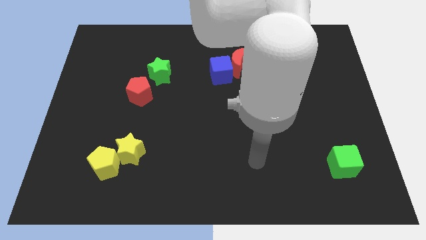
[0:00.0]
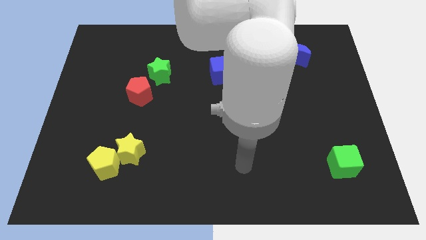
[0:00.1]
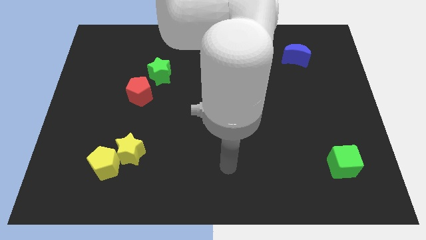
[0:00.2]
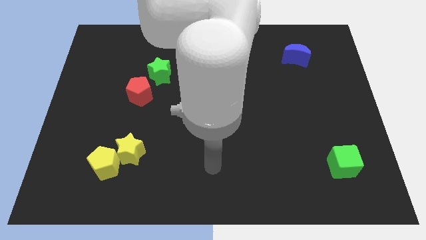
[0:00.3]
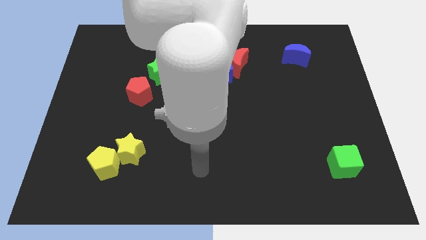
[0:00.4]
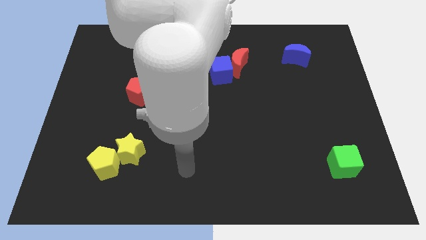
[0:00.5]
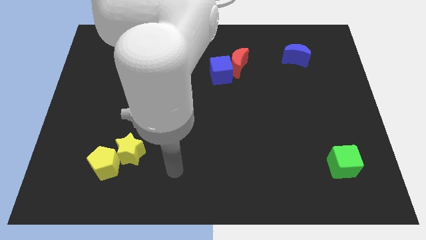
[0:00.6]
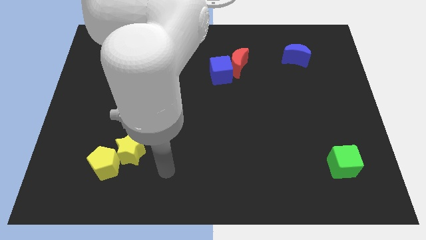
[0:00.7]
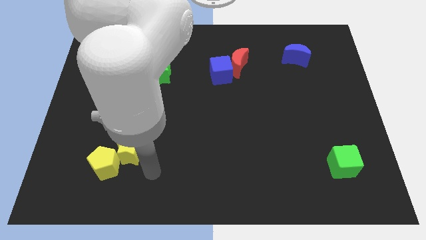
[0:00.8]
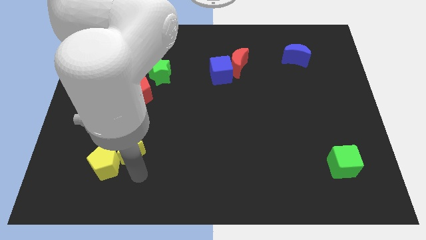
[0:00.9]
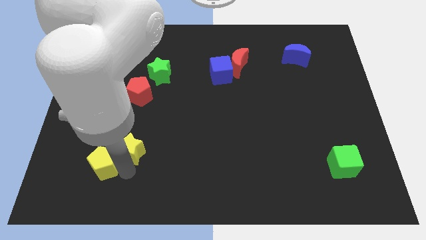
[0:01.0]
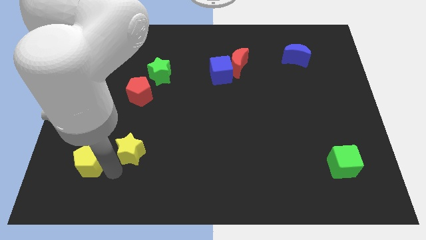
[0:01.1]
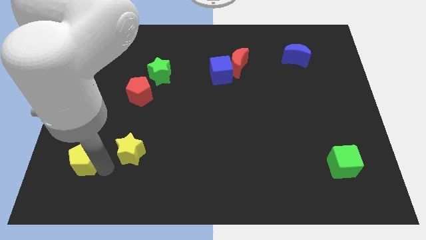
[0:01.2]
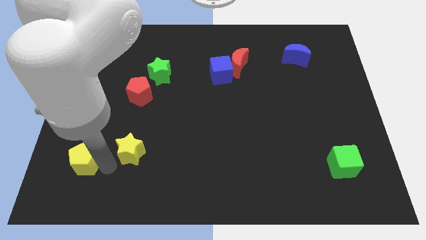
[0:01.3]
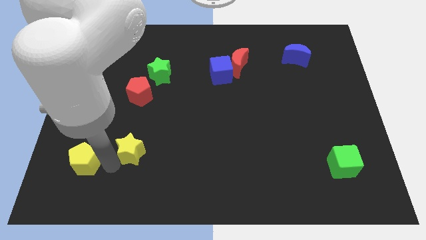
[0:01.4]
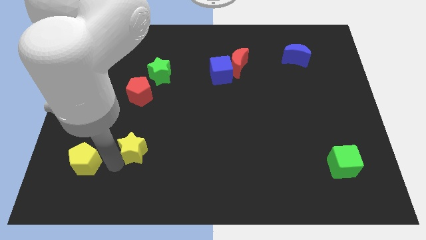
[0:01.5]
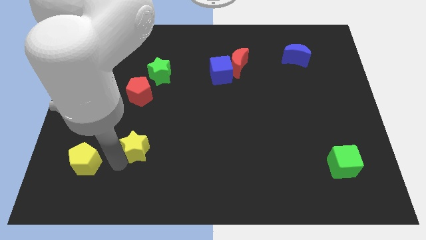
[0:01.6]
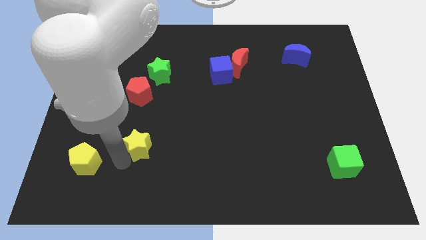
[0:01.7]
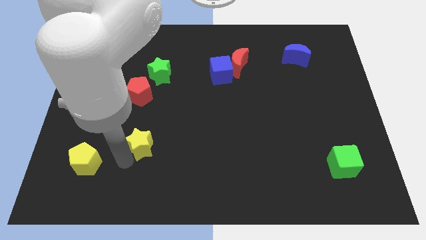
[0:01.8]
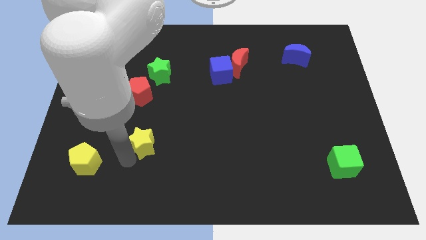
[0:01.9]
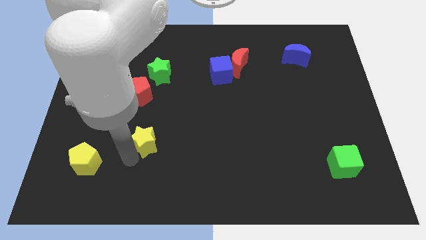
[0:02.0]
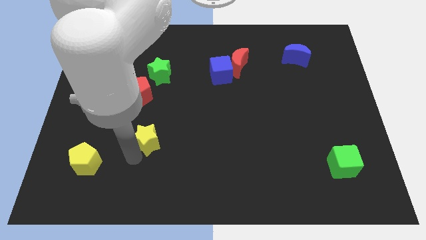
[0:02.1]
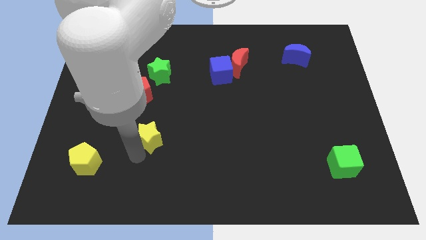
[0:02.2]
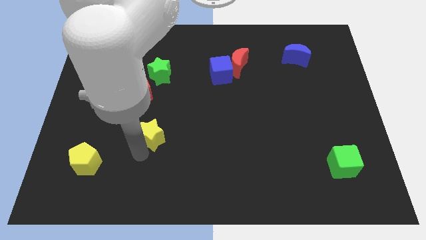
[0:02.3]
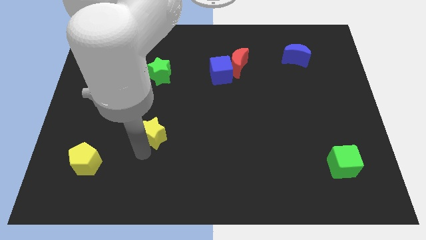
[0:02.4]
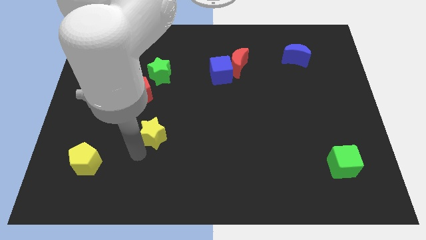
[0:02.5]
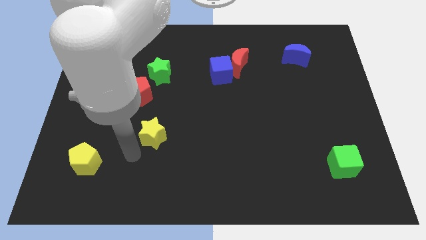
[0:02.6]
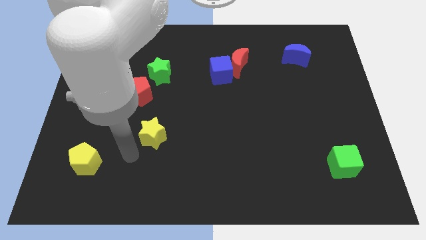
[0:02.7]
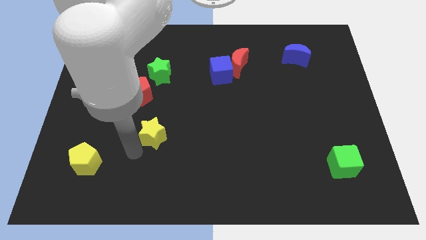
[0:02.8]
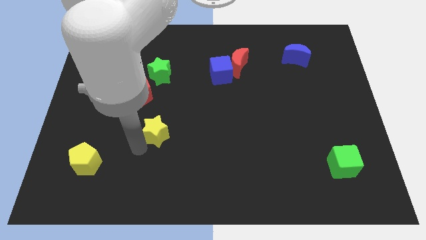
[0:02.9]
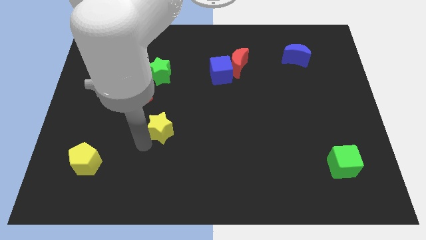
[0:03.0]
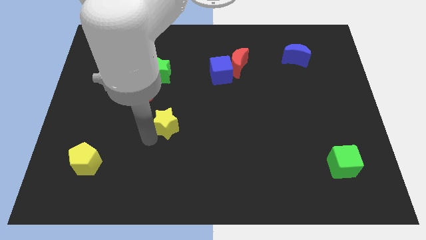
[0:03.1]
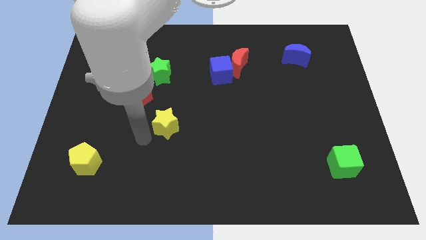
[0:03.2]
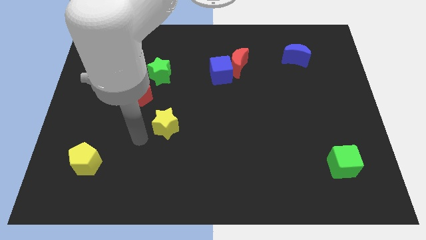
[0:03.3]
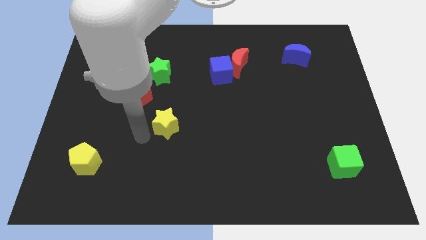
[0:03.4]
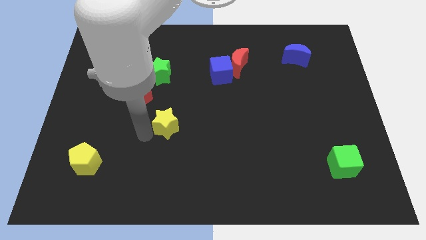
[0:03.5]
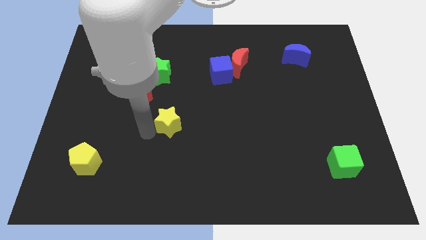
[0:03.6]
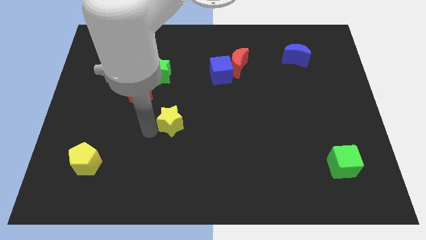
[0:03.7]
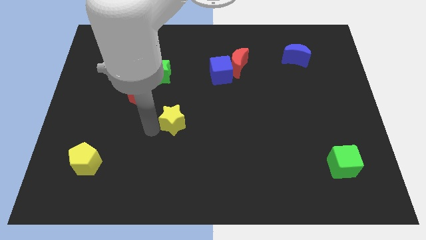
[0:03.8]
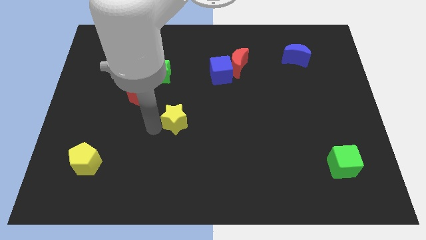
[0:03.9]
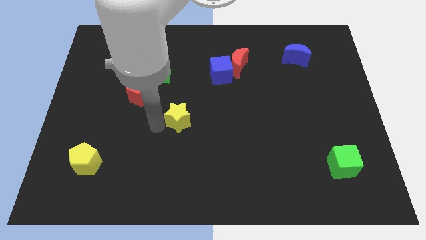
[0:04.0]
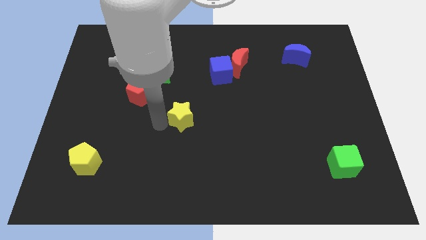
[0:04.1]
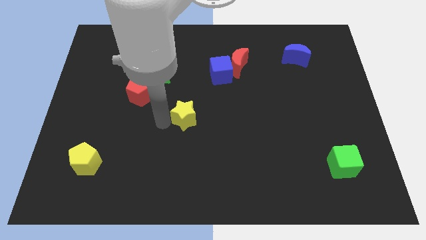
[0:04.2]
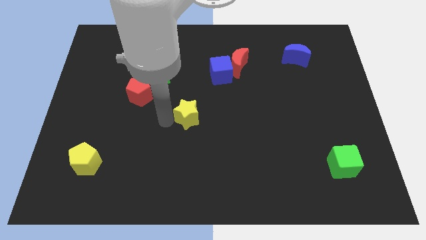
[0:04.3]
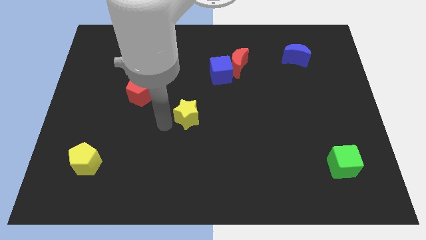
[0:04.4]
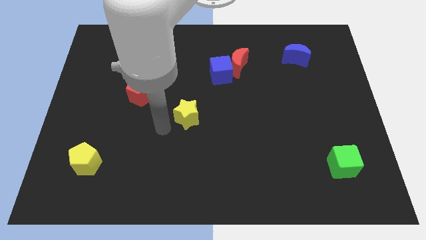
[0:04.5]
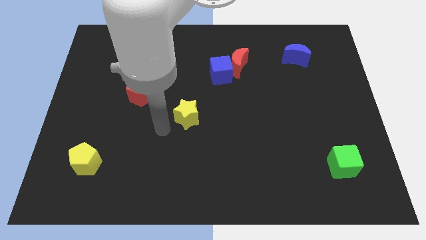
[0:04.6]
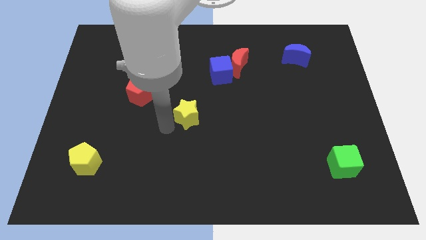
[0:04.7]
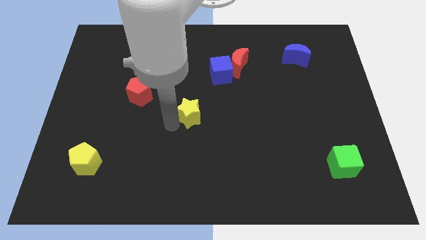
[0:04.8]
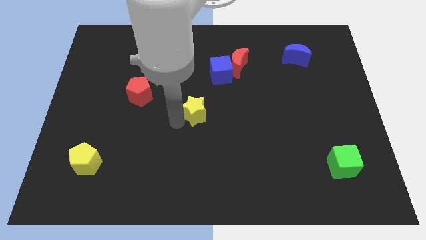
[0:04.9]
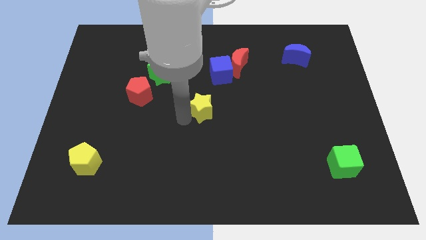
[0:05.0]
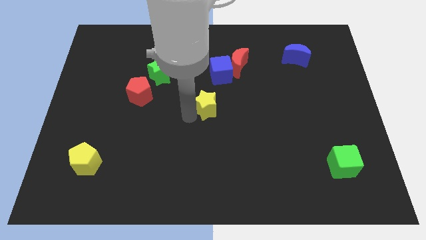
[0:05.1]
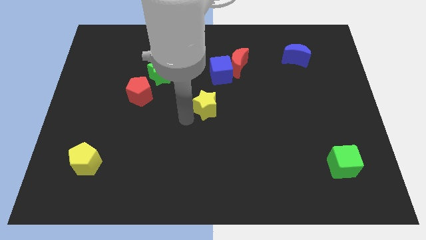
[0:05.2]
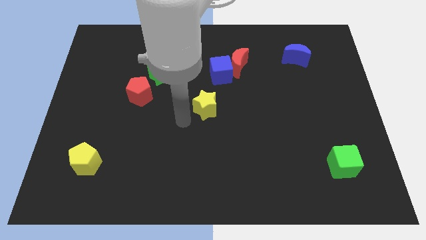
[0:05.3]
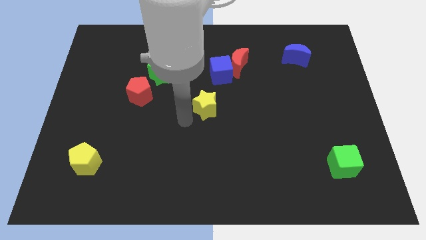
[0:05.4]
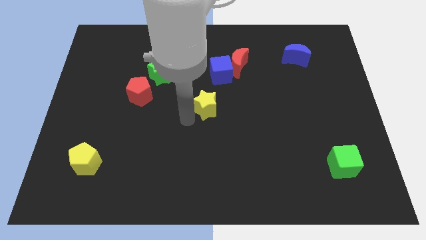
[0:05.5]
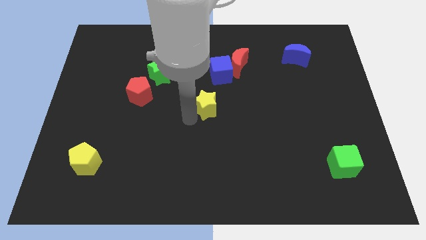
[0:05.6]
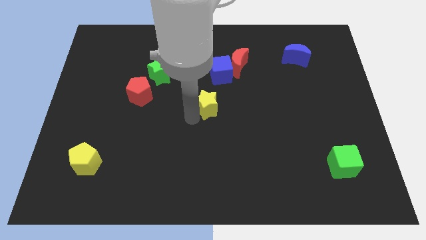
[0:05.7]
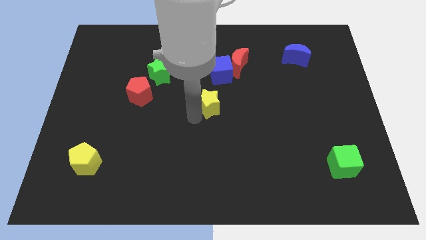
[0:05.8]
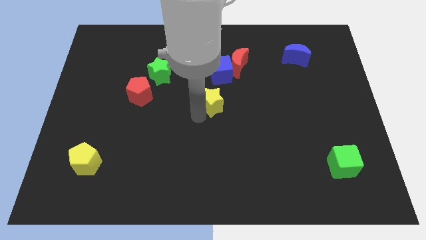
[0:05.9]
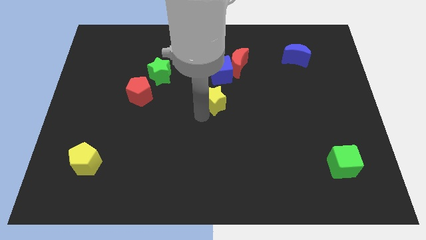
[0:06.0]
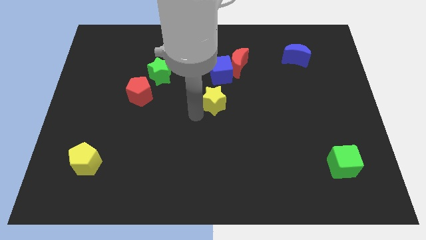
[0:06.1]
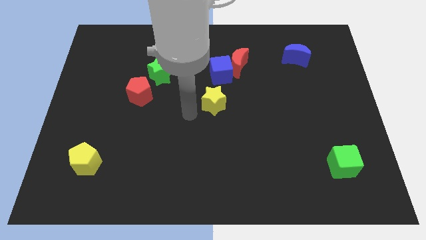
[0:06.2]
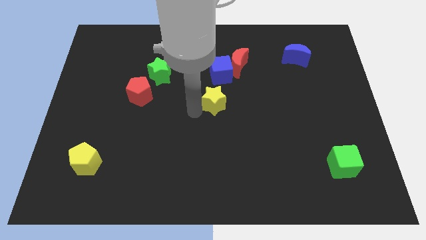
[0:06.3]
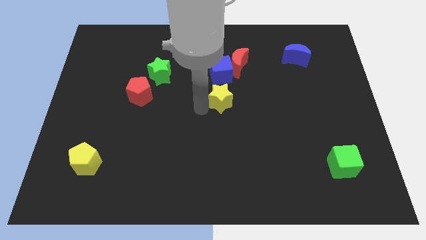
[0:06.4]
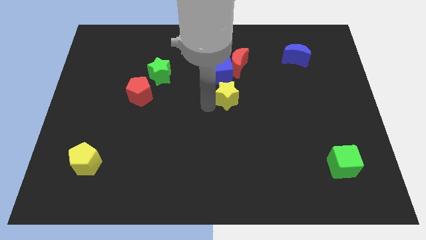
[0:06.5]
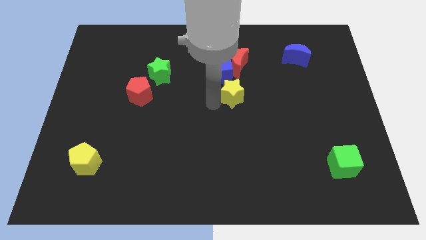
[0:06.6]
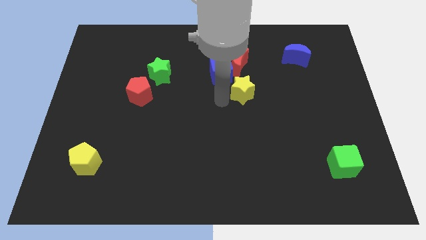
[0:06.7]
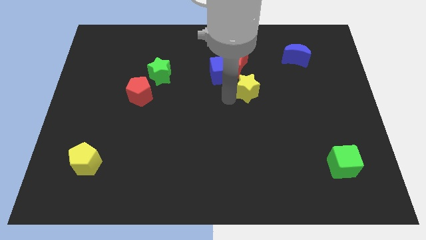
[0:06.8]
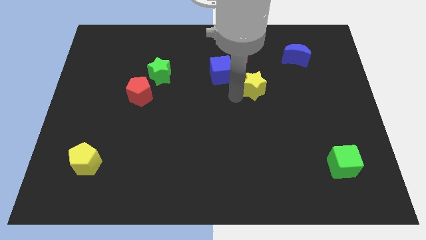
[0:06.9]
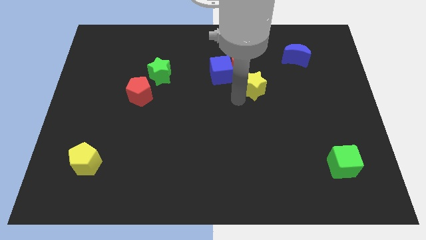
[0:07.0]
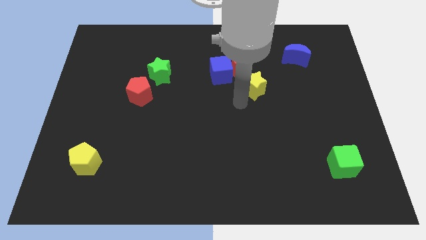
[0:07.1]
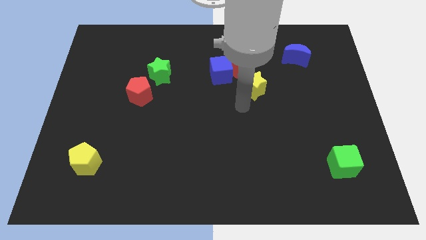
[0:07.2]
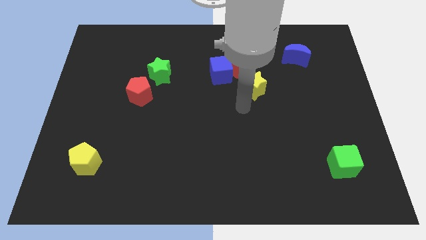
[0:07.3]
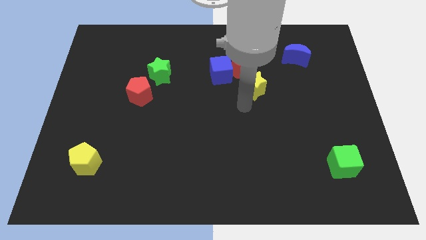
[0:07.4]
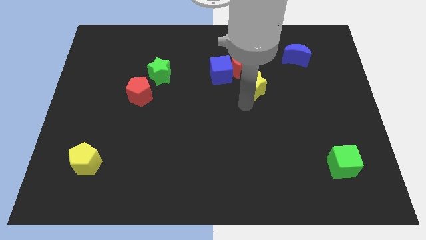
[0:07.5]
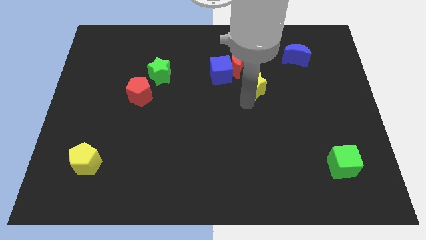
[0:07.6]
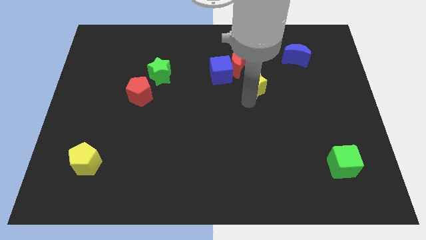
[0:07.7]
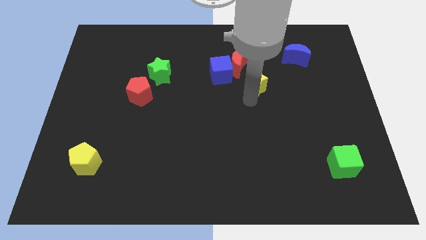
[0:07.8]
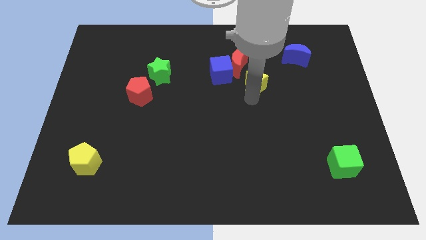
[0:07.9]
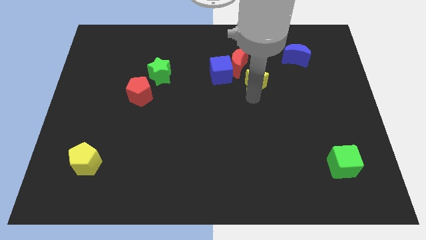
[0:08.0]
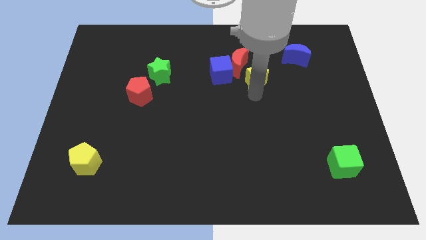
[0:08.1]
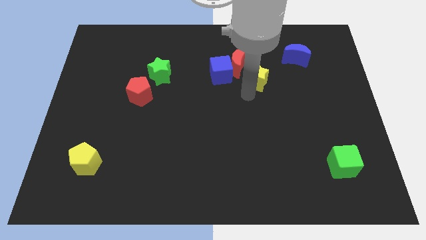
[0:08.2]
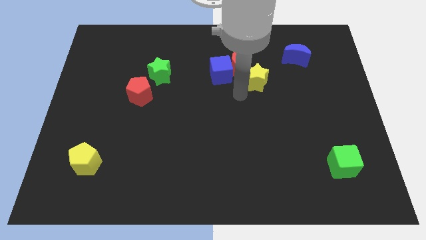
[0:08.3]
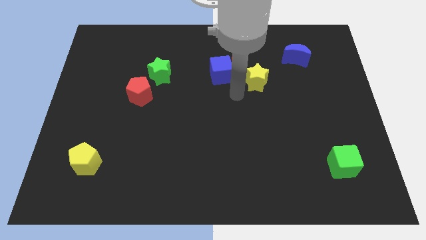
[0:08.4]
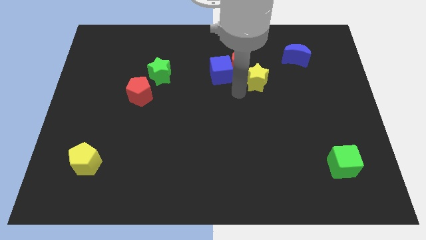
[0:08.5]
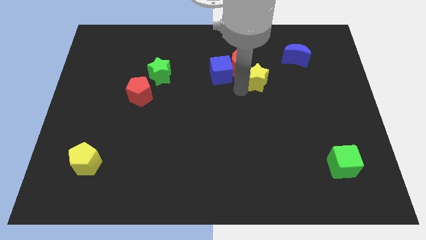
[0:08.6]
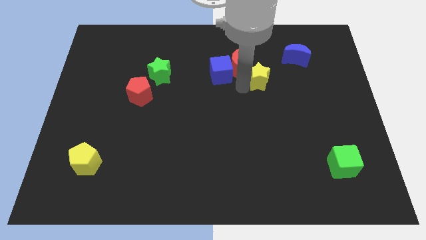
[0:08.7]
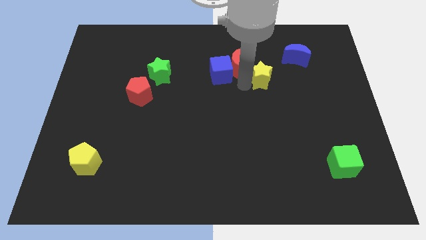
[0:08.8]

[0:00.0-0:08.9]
slide the yellow star just right of the red moon
